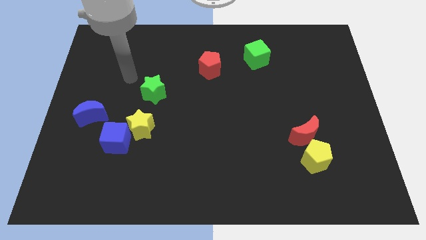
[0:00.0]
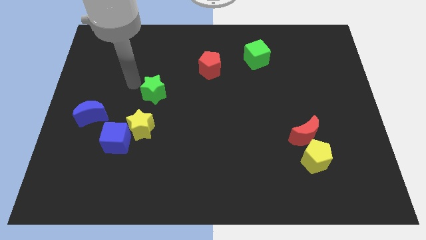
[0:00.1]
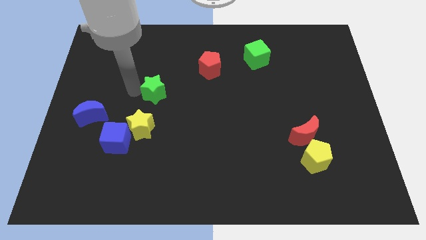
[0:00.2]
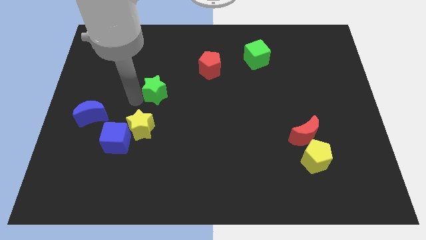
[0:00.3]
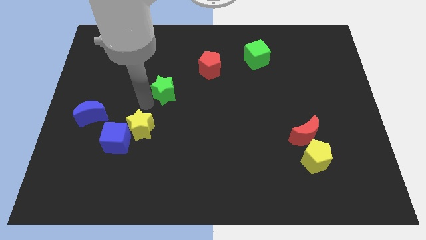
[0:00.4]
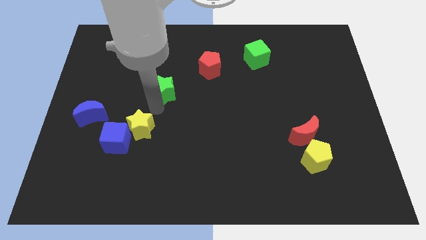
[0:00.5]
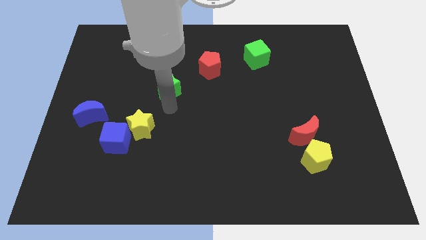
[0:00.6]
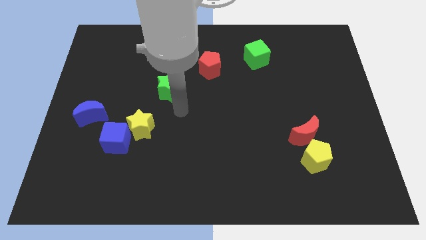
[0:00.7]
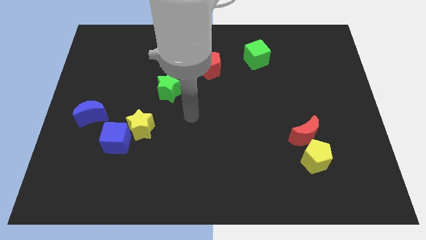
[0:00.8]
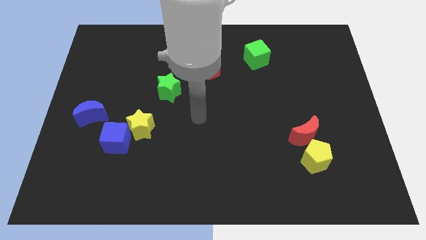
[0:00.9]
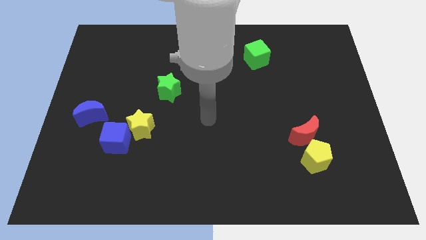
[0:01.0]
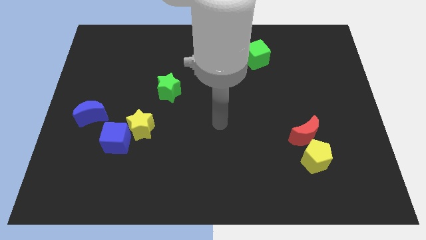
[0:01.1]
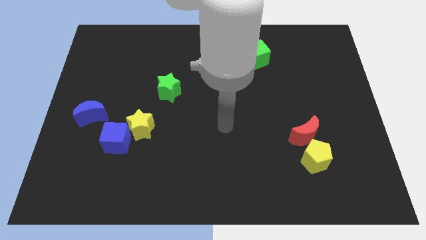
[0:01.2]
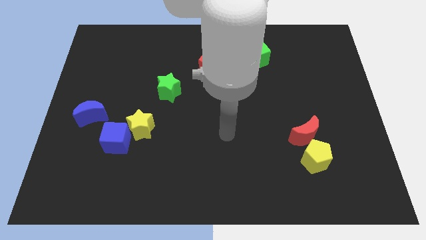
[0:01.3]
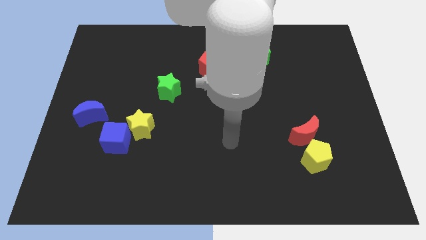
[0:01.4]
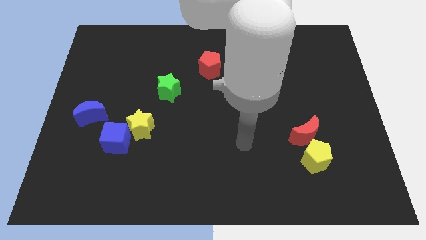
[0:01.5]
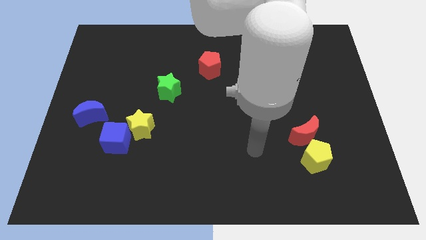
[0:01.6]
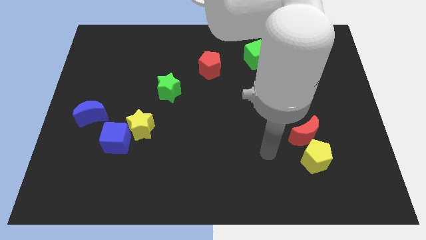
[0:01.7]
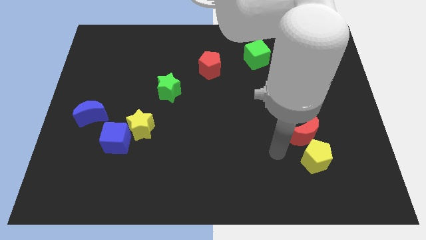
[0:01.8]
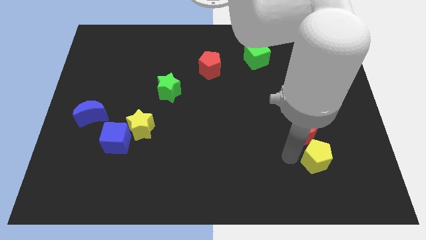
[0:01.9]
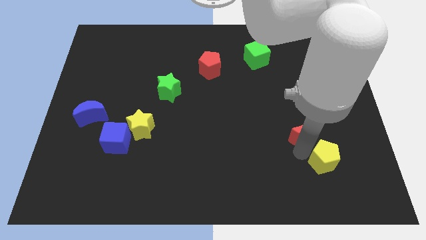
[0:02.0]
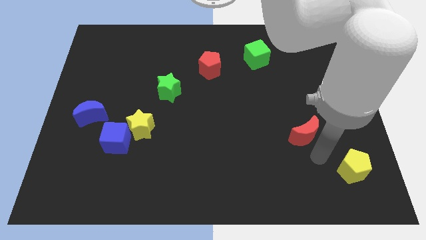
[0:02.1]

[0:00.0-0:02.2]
pull the red moon apart from the yellow pentagon

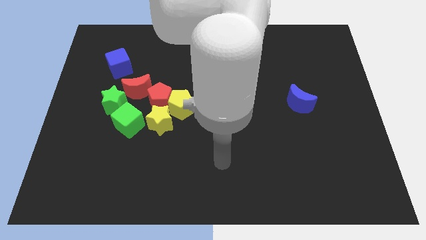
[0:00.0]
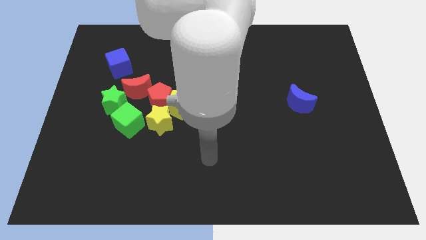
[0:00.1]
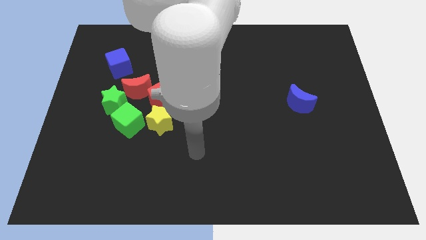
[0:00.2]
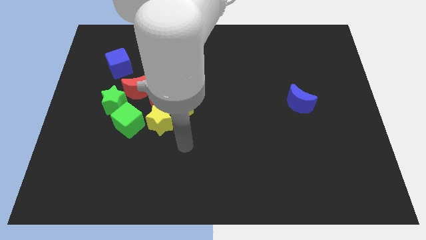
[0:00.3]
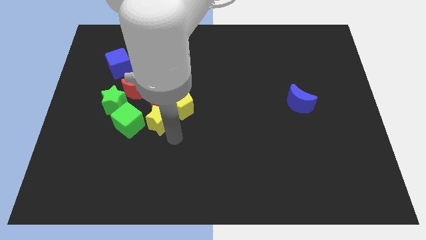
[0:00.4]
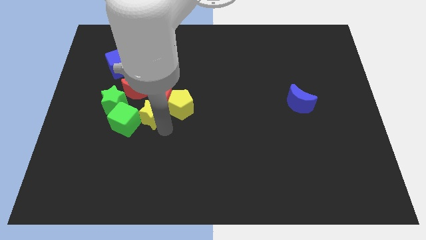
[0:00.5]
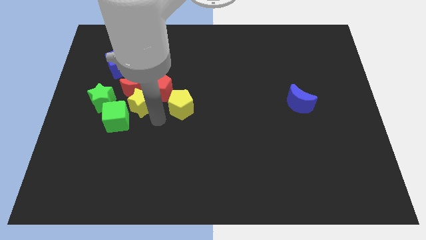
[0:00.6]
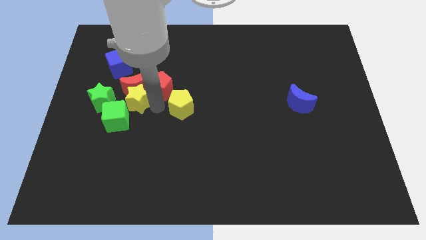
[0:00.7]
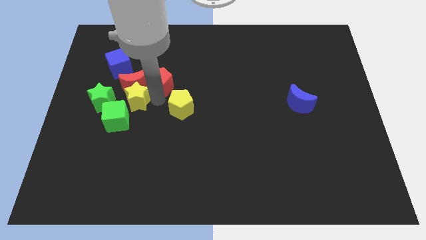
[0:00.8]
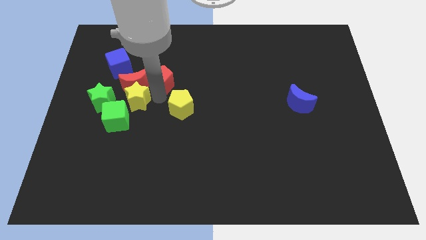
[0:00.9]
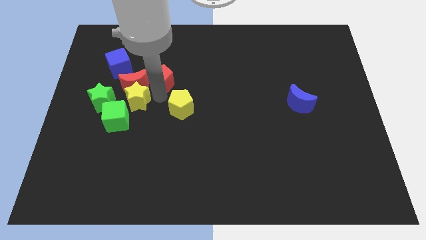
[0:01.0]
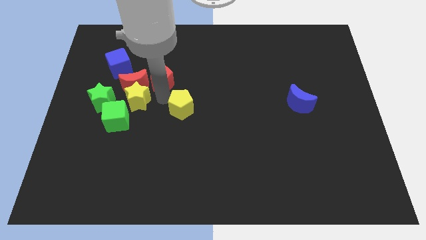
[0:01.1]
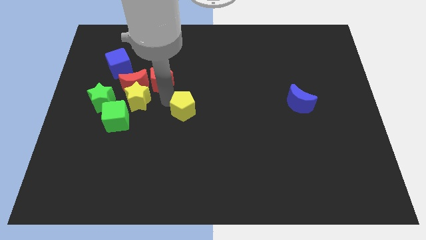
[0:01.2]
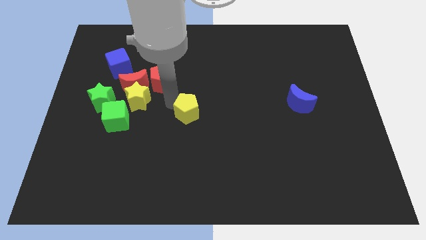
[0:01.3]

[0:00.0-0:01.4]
separate the yellow pentagon from the red pentagon and yellow star

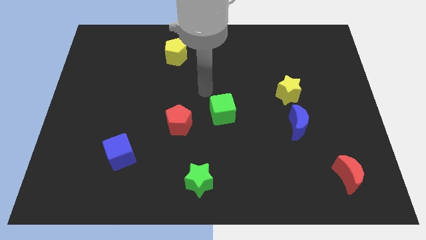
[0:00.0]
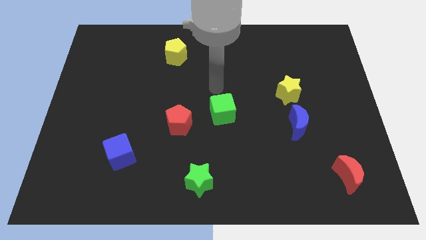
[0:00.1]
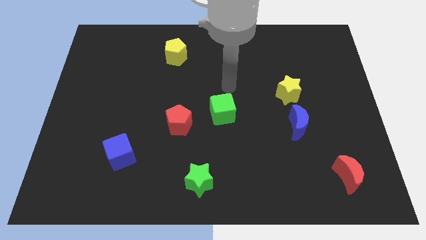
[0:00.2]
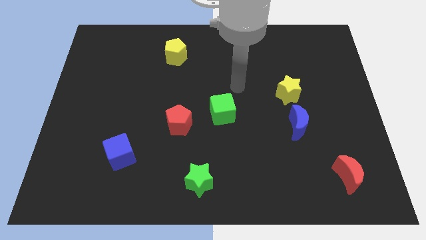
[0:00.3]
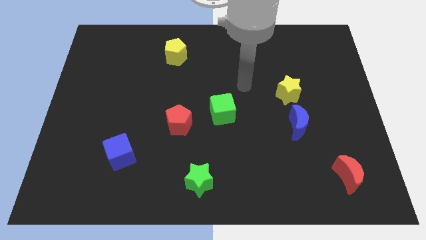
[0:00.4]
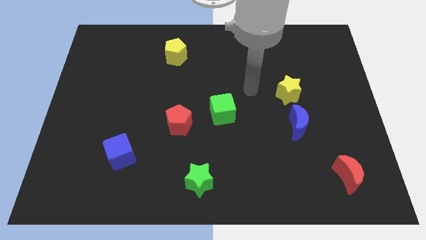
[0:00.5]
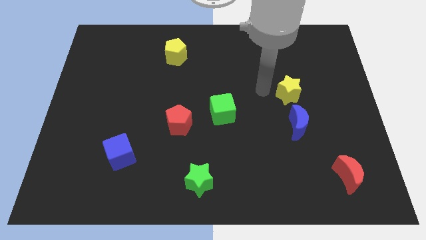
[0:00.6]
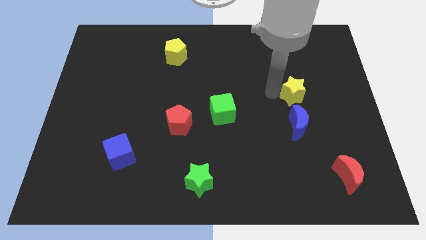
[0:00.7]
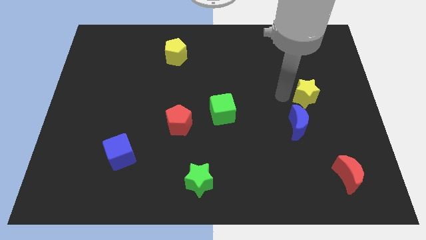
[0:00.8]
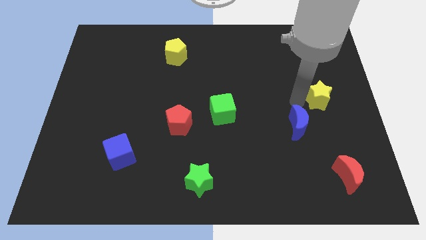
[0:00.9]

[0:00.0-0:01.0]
pull the blue moon apart from the yellow star

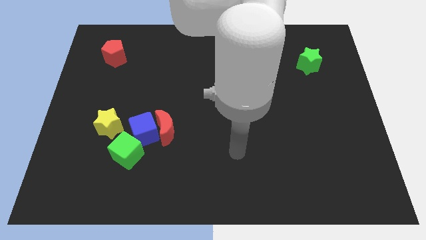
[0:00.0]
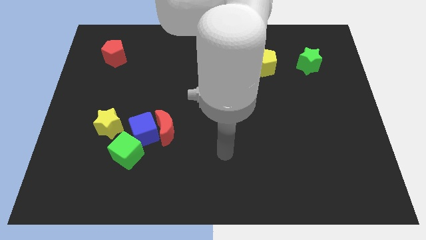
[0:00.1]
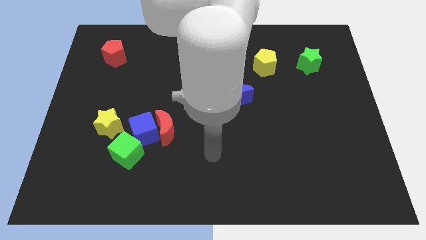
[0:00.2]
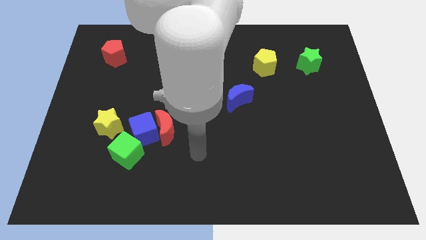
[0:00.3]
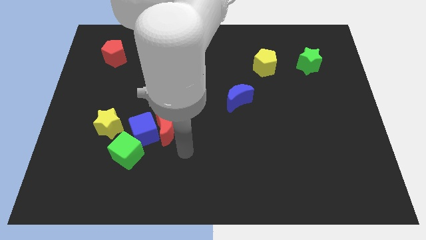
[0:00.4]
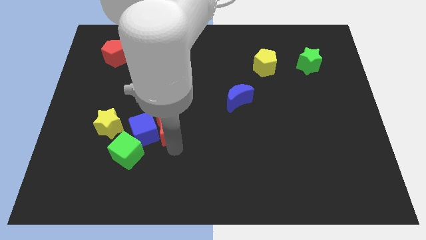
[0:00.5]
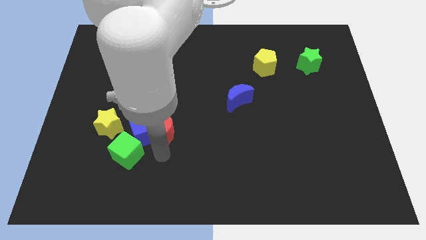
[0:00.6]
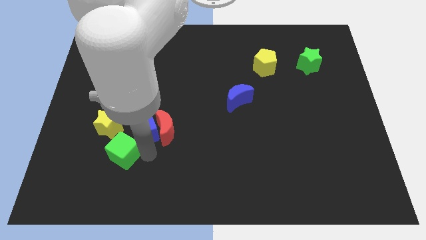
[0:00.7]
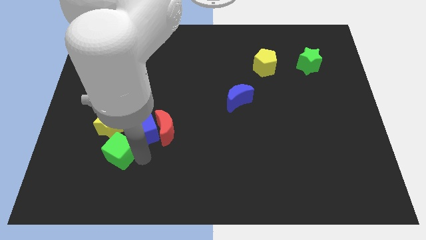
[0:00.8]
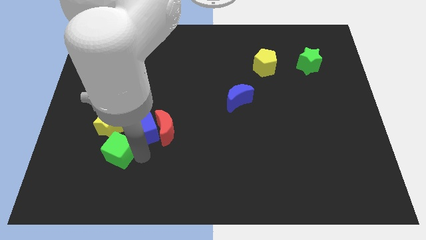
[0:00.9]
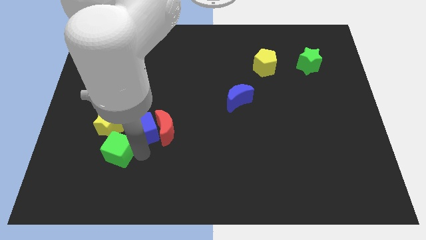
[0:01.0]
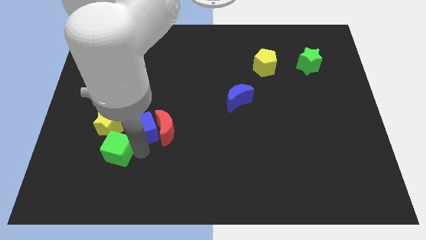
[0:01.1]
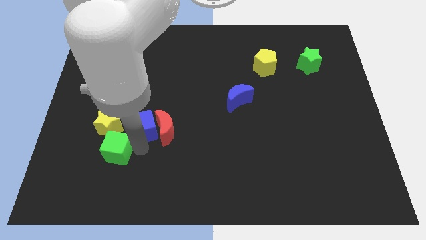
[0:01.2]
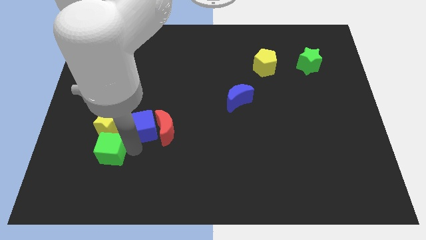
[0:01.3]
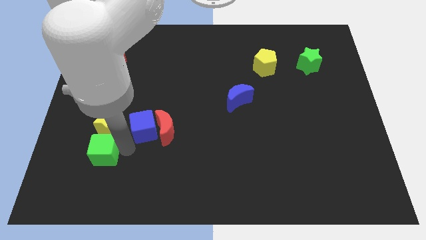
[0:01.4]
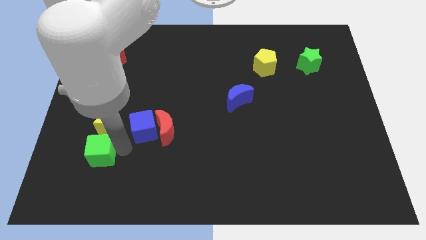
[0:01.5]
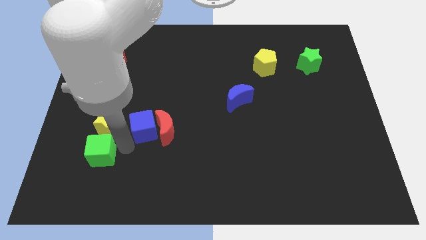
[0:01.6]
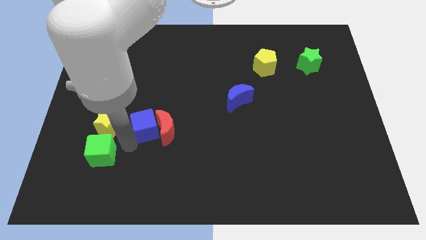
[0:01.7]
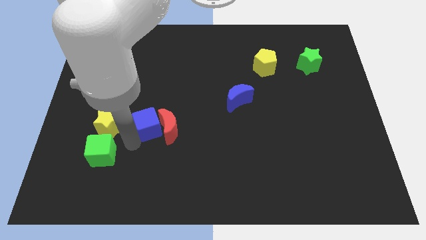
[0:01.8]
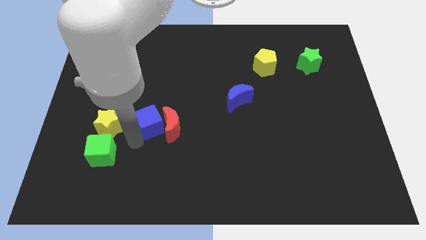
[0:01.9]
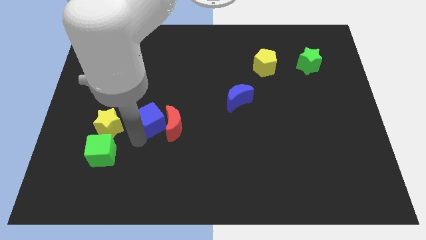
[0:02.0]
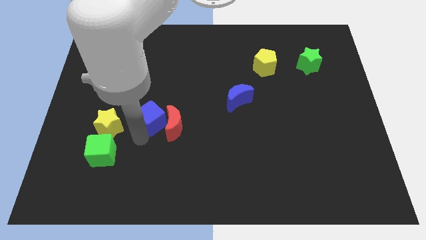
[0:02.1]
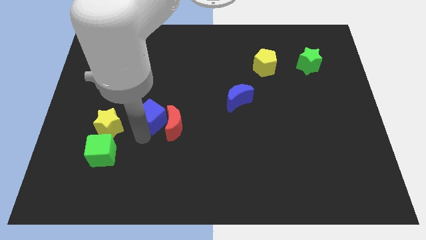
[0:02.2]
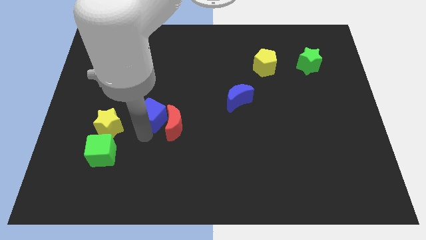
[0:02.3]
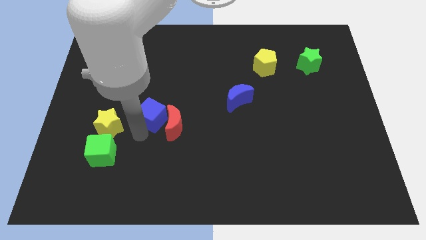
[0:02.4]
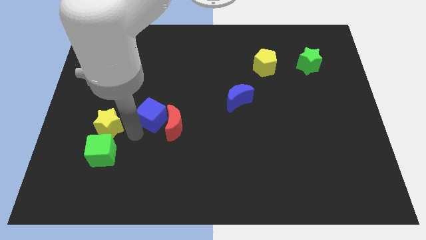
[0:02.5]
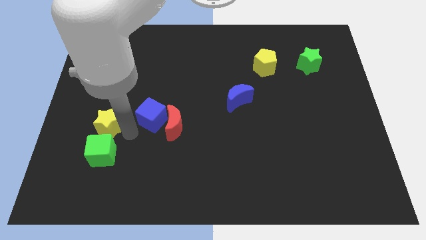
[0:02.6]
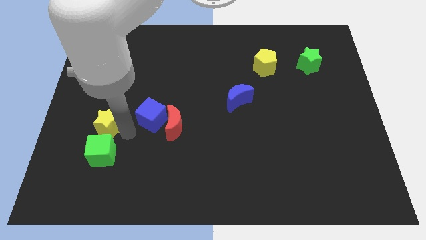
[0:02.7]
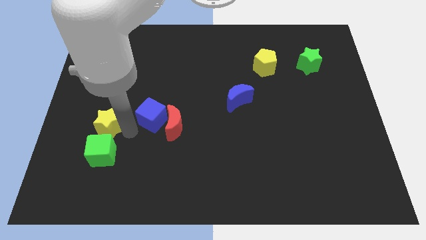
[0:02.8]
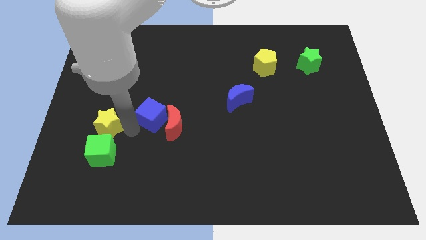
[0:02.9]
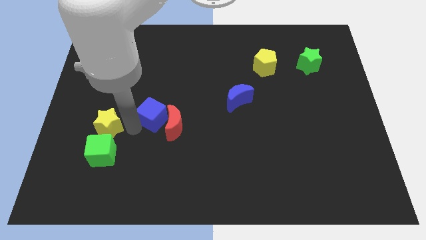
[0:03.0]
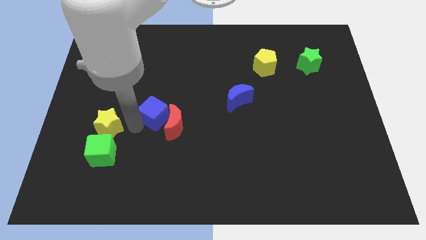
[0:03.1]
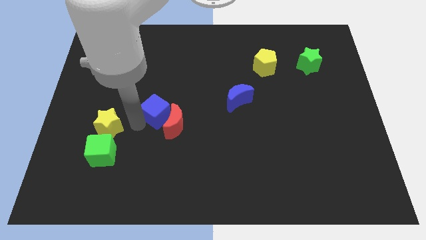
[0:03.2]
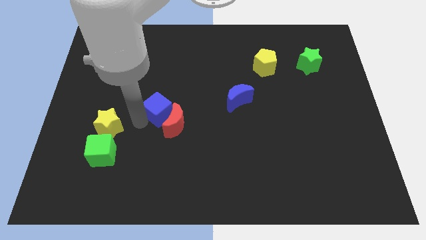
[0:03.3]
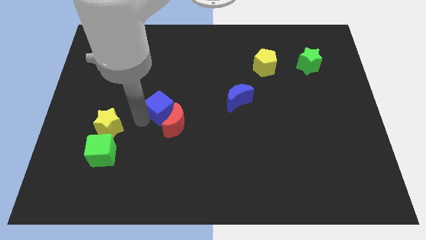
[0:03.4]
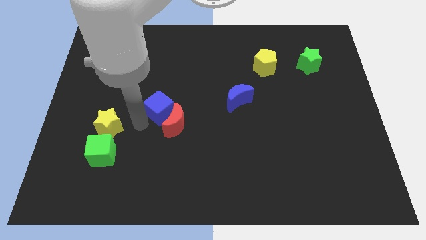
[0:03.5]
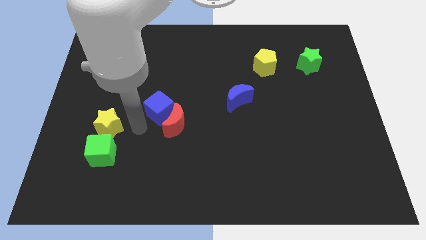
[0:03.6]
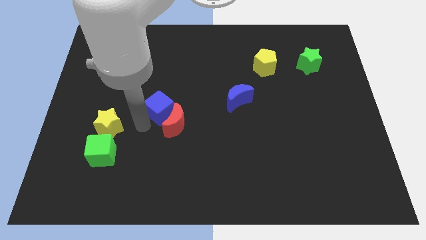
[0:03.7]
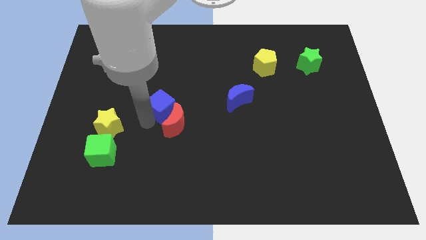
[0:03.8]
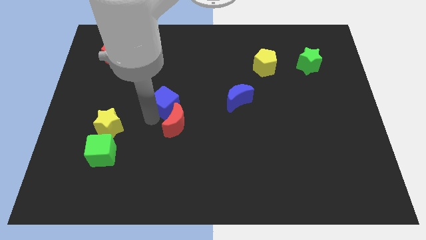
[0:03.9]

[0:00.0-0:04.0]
pull the blue cube apart from the group of blocks

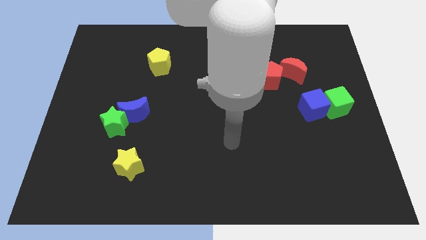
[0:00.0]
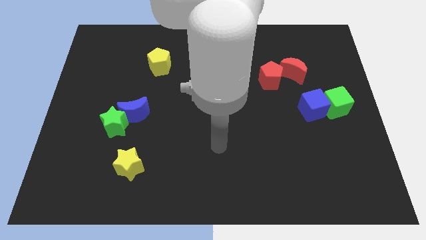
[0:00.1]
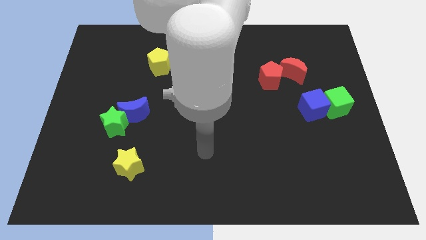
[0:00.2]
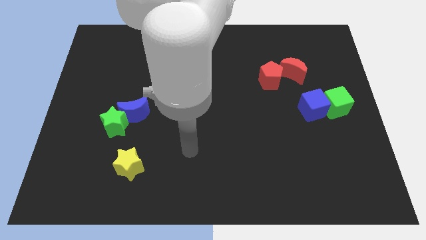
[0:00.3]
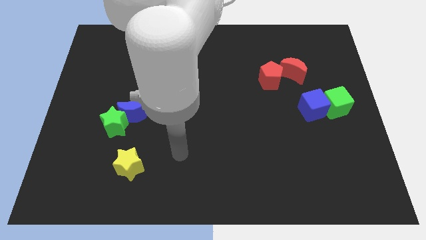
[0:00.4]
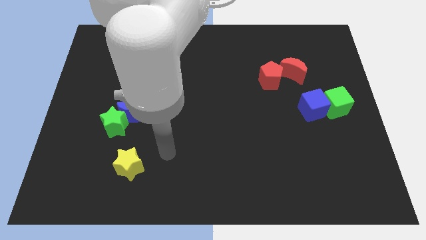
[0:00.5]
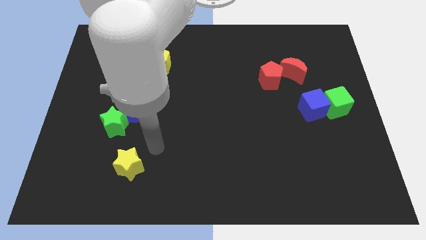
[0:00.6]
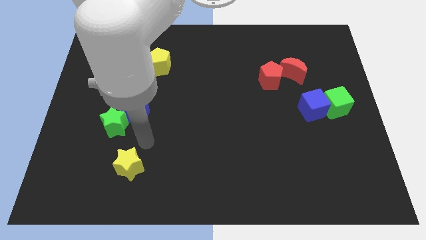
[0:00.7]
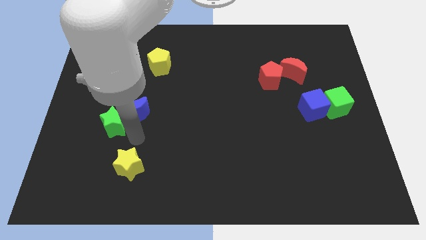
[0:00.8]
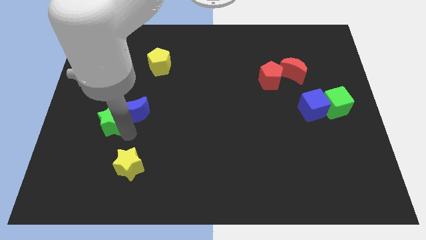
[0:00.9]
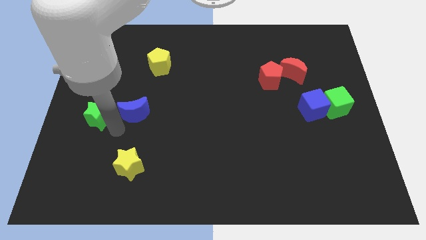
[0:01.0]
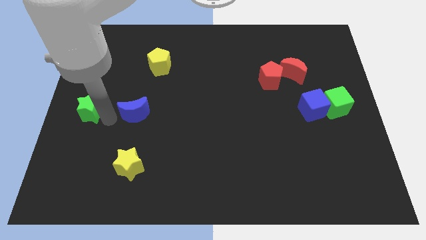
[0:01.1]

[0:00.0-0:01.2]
move the blue moon away from the green star
